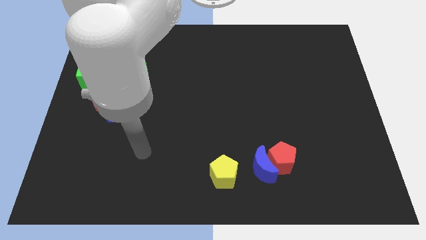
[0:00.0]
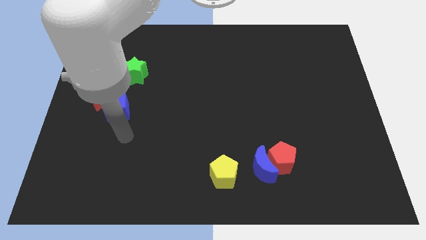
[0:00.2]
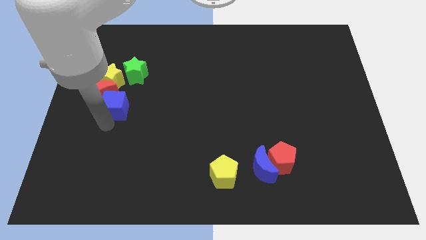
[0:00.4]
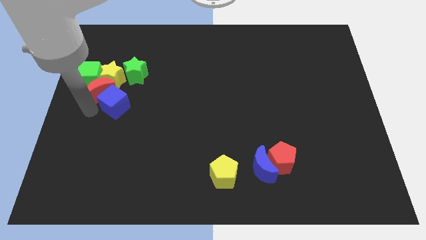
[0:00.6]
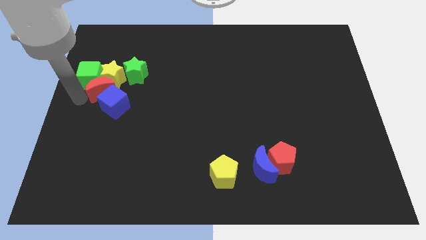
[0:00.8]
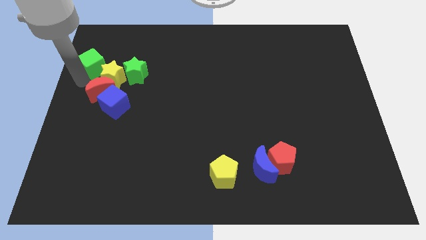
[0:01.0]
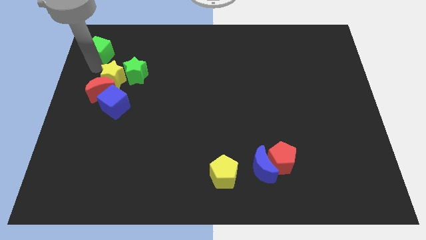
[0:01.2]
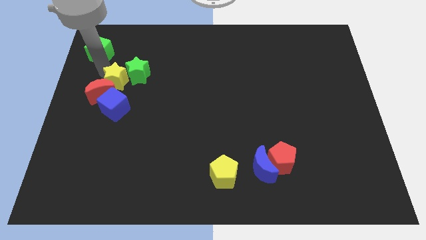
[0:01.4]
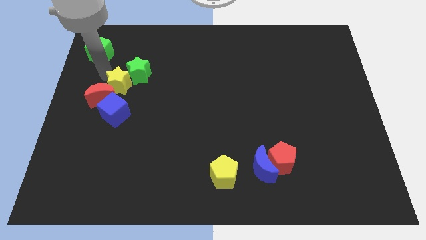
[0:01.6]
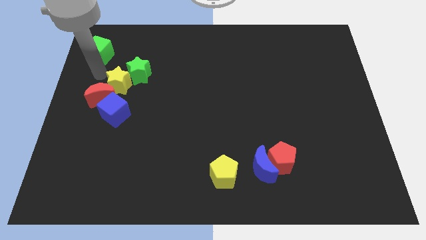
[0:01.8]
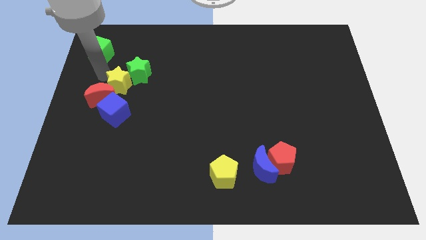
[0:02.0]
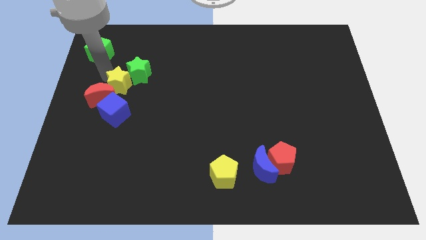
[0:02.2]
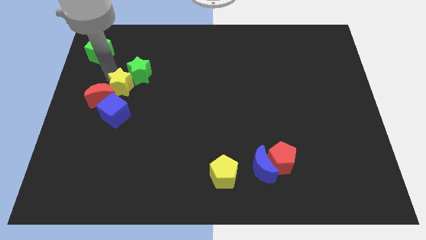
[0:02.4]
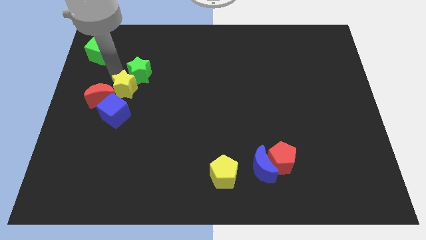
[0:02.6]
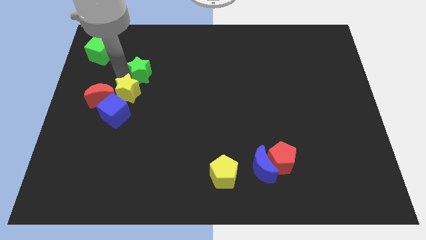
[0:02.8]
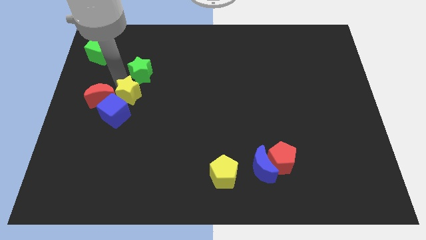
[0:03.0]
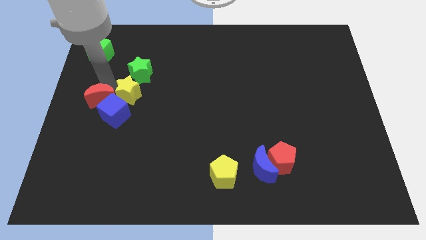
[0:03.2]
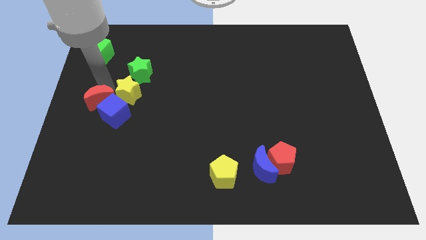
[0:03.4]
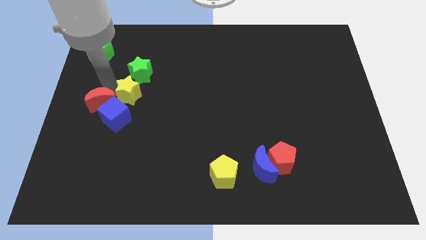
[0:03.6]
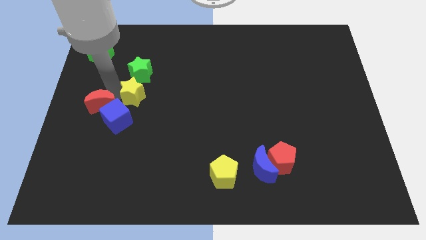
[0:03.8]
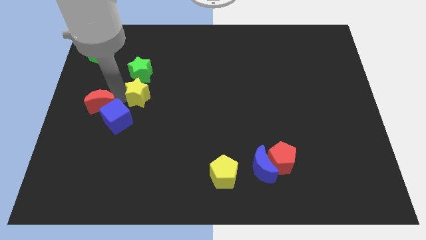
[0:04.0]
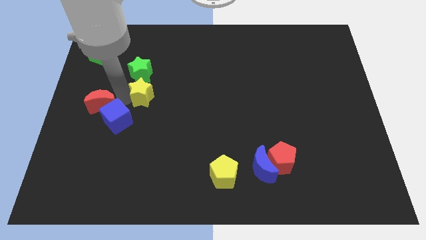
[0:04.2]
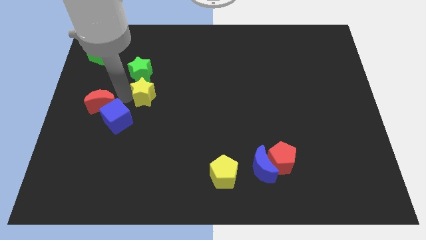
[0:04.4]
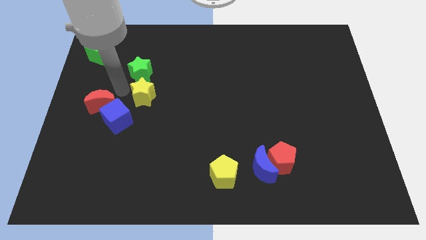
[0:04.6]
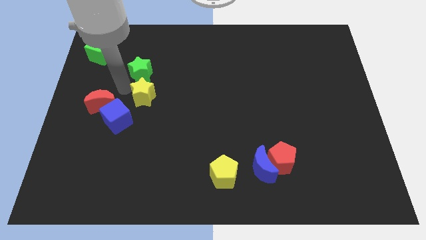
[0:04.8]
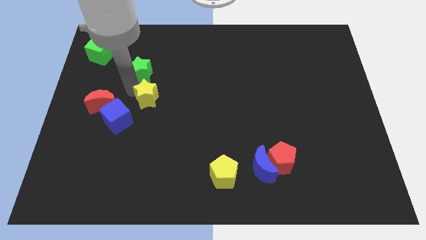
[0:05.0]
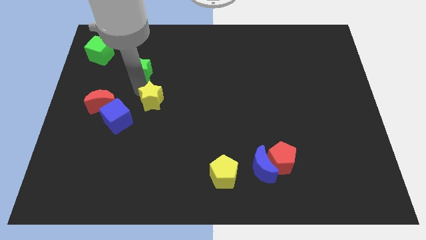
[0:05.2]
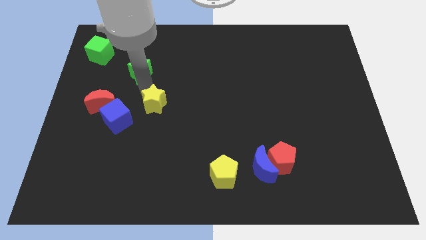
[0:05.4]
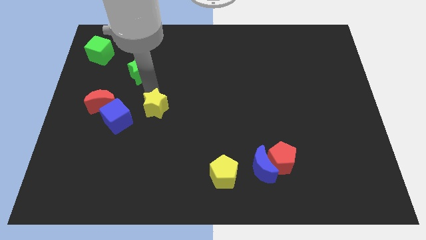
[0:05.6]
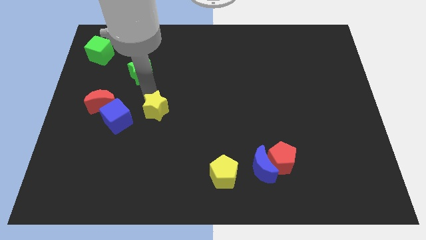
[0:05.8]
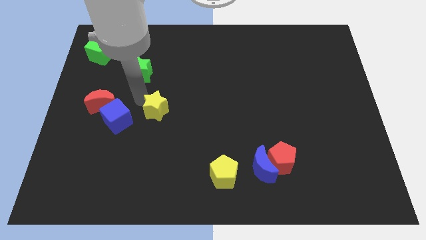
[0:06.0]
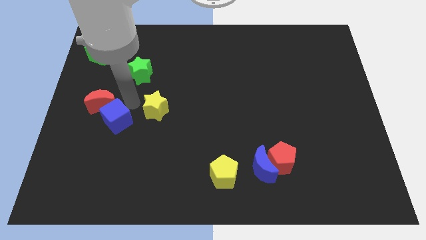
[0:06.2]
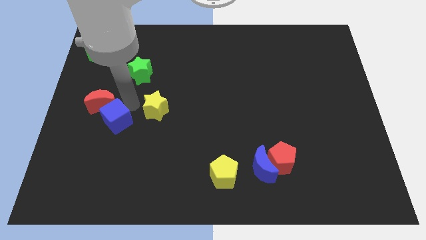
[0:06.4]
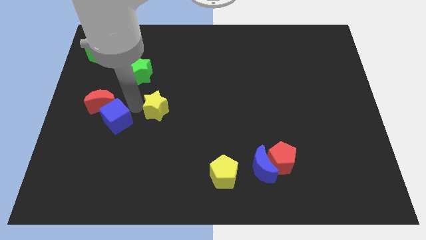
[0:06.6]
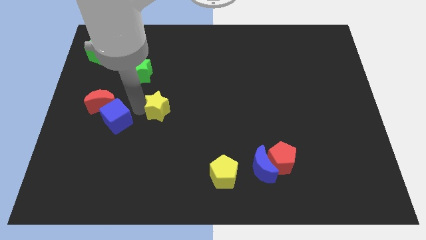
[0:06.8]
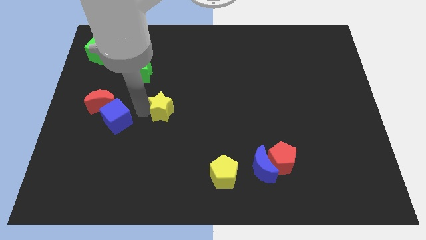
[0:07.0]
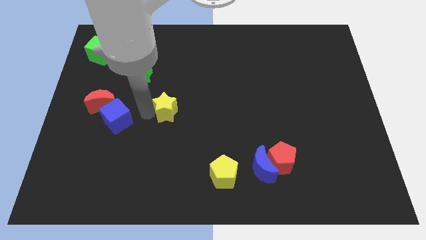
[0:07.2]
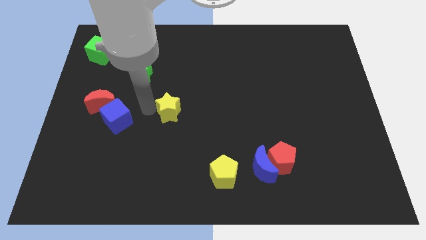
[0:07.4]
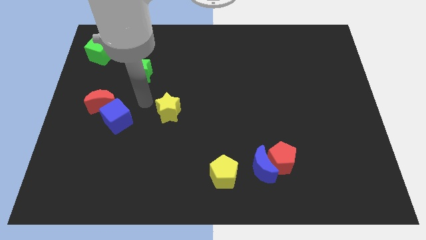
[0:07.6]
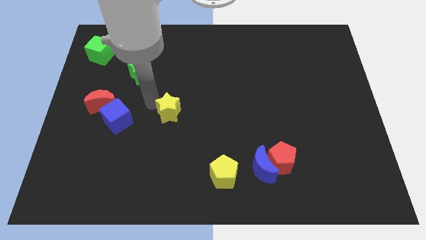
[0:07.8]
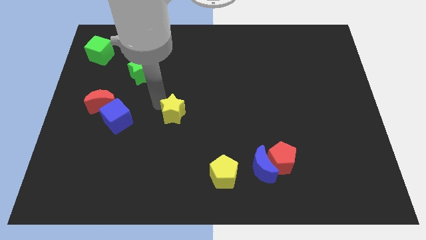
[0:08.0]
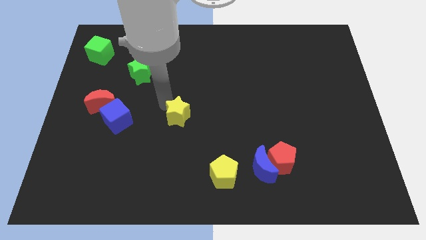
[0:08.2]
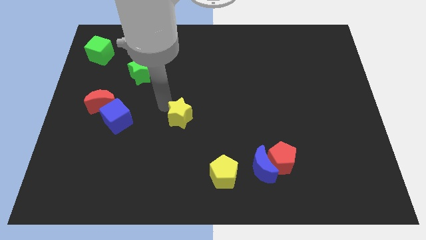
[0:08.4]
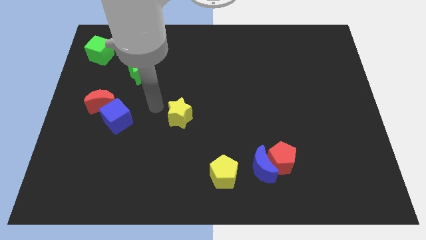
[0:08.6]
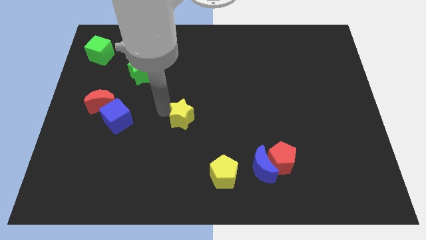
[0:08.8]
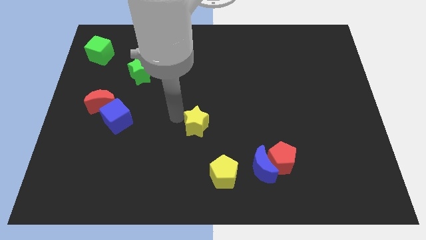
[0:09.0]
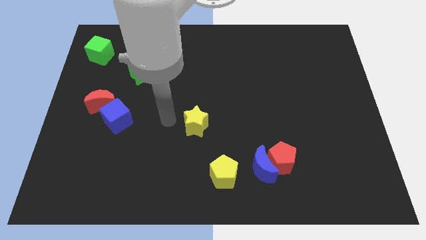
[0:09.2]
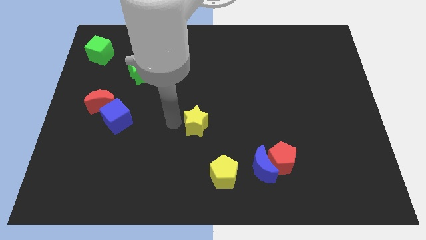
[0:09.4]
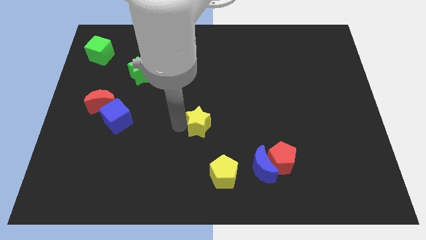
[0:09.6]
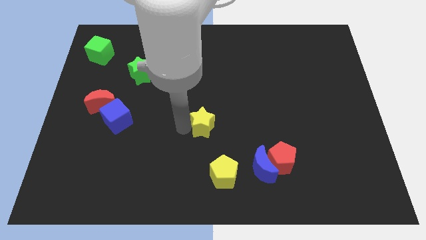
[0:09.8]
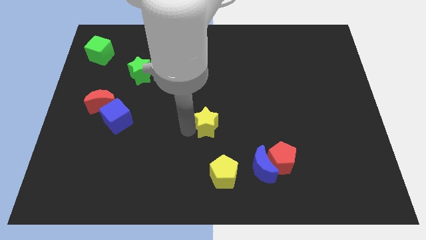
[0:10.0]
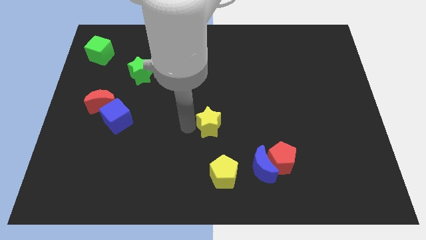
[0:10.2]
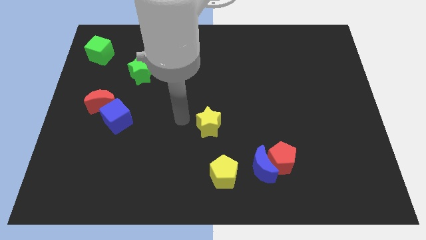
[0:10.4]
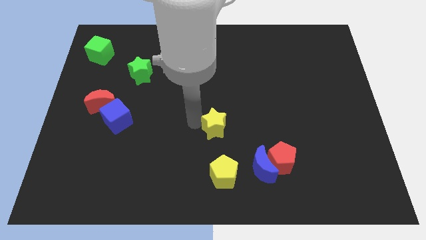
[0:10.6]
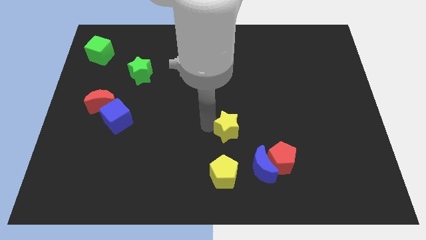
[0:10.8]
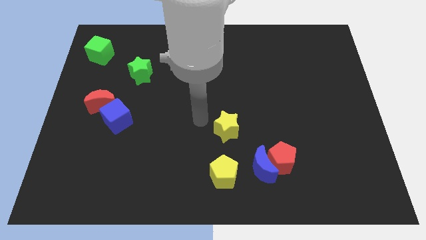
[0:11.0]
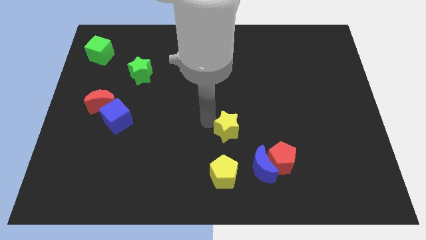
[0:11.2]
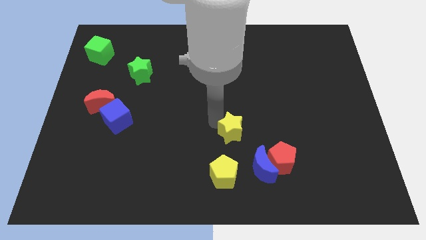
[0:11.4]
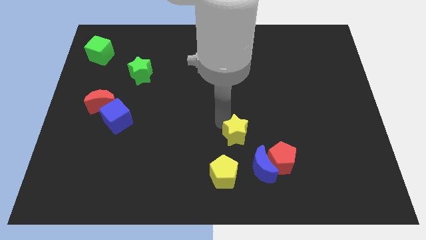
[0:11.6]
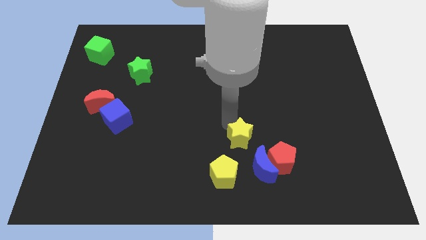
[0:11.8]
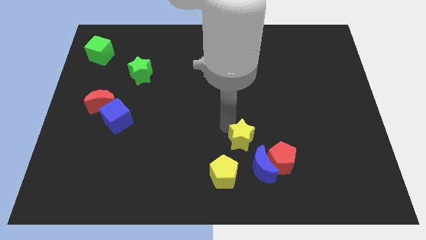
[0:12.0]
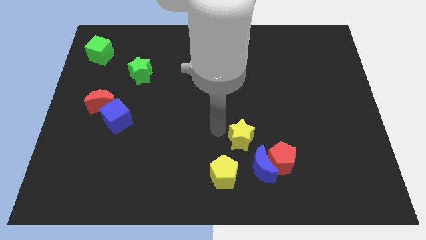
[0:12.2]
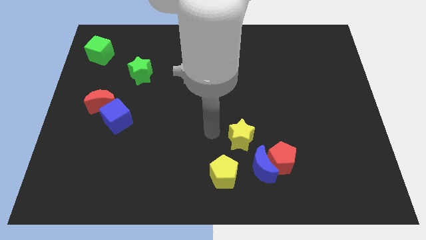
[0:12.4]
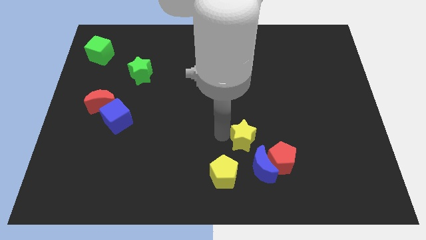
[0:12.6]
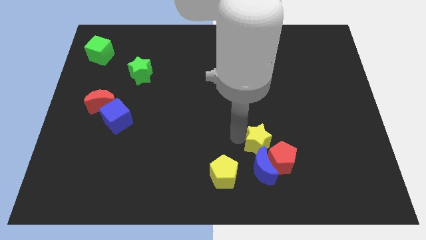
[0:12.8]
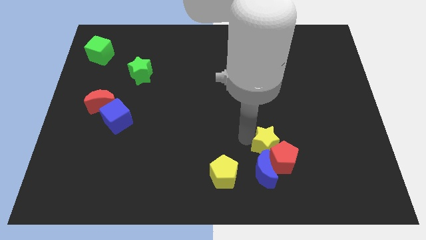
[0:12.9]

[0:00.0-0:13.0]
put the yellow star to the red pentagon

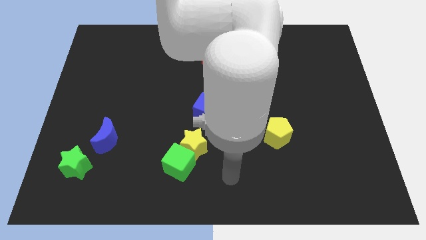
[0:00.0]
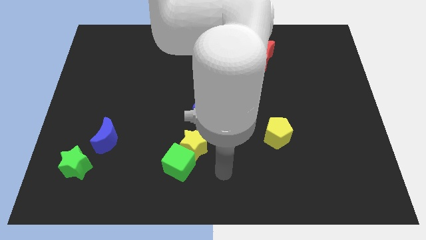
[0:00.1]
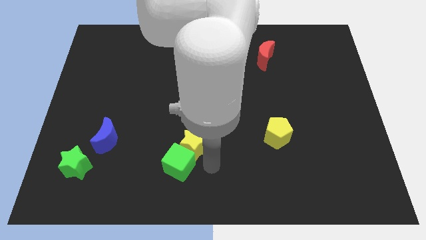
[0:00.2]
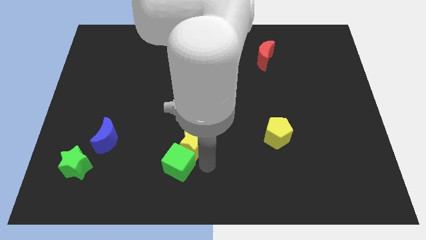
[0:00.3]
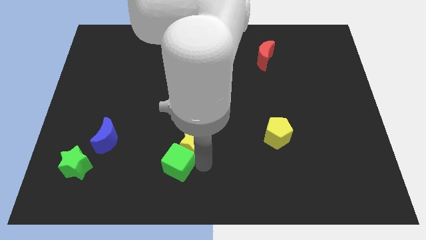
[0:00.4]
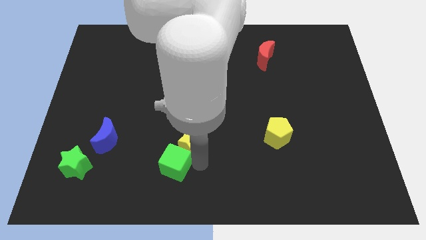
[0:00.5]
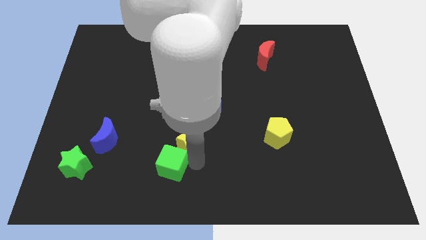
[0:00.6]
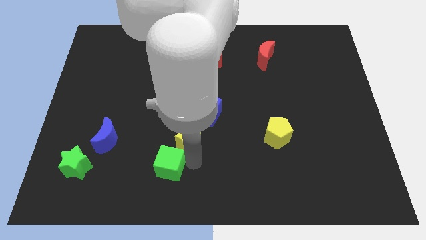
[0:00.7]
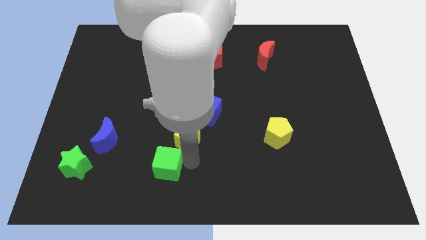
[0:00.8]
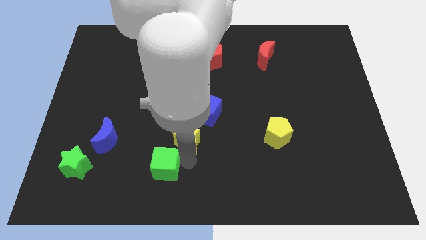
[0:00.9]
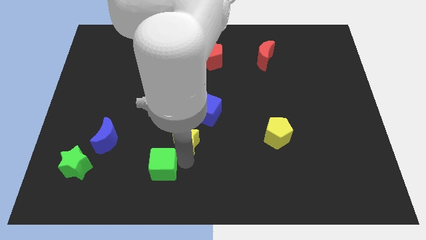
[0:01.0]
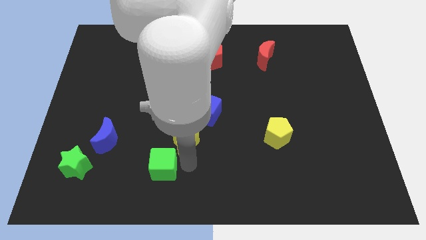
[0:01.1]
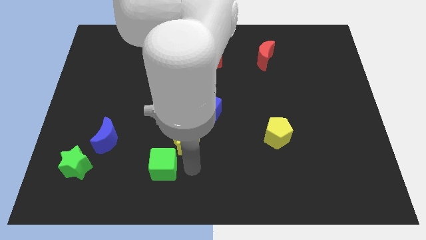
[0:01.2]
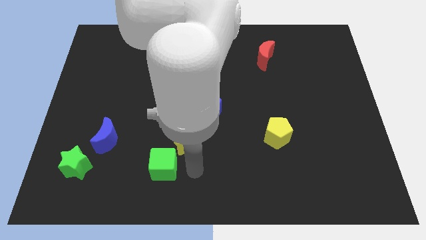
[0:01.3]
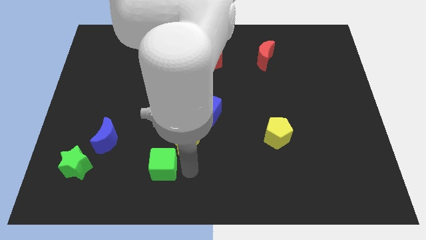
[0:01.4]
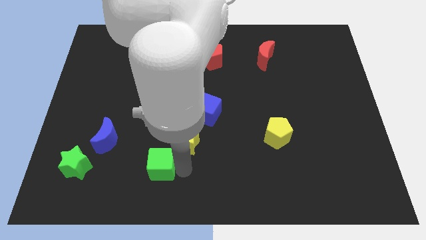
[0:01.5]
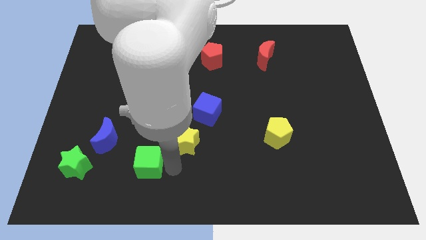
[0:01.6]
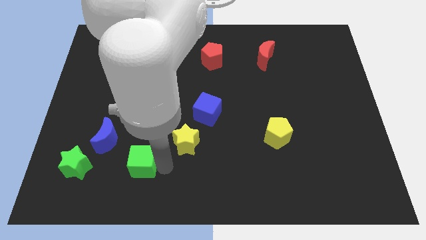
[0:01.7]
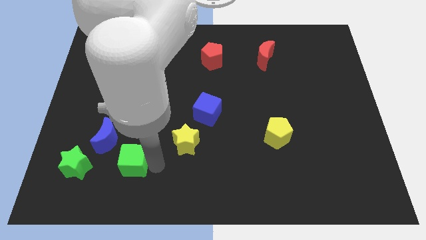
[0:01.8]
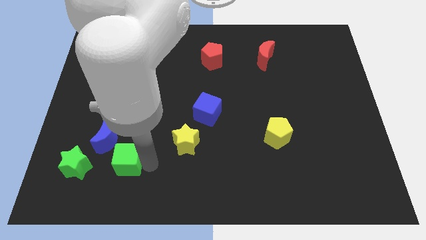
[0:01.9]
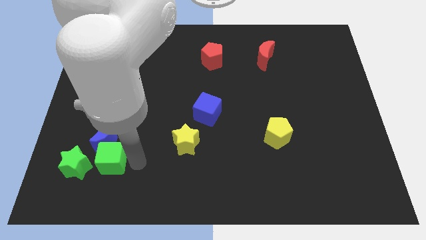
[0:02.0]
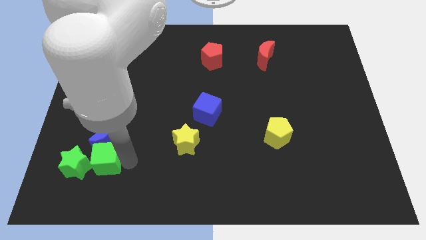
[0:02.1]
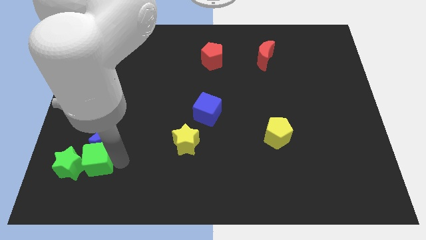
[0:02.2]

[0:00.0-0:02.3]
push the green cube close to the green star
